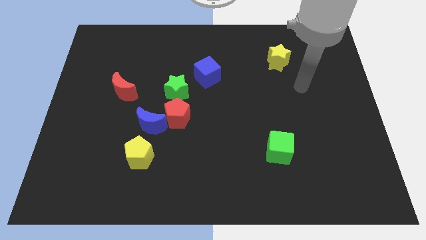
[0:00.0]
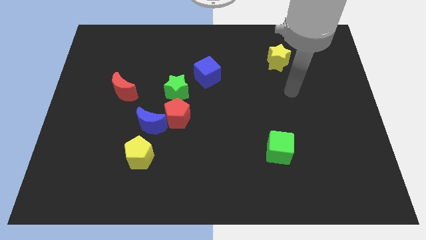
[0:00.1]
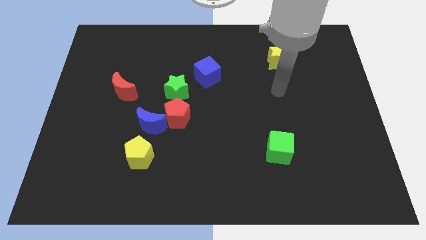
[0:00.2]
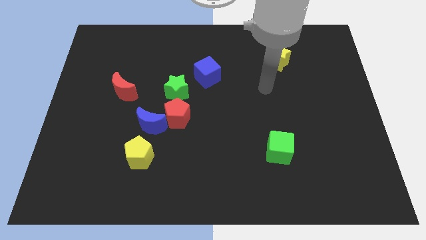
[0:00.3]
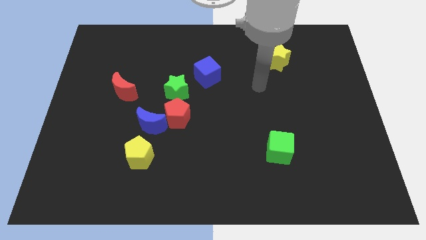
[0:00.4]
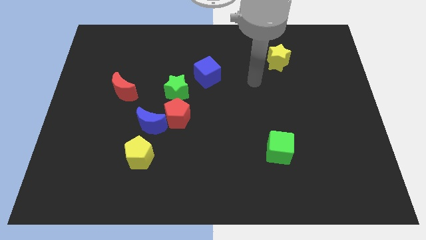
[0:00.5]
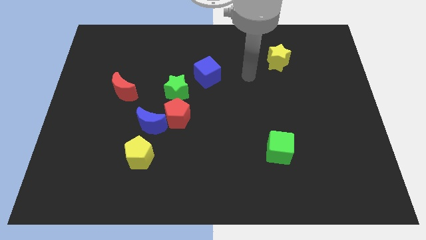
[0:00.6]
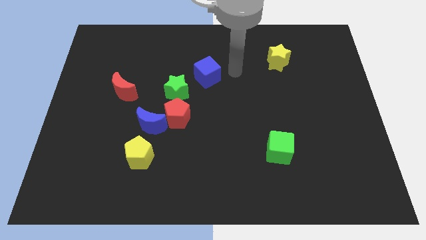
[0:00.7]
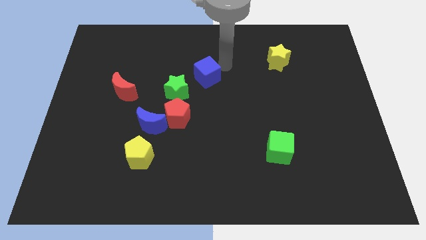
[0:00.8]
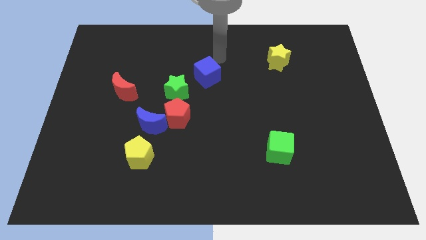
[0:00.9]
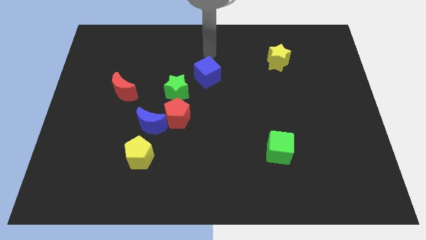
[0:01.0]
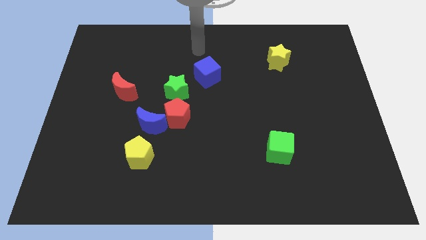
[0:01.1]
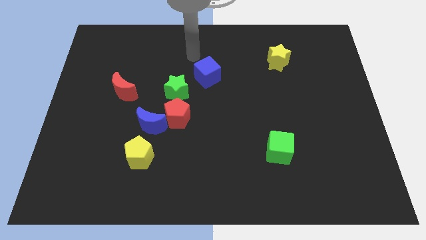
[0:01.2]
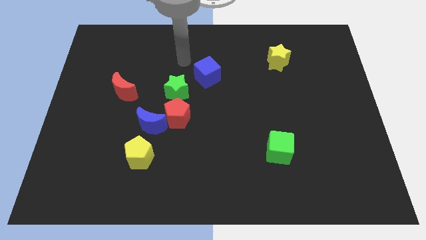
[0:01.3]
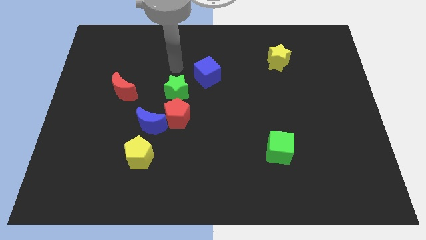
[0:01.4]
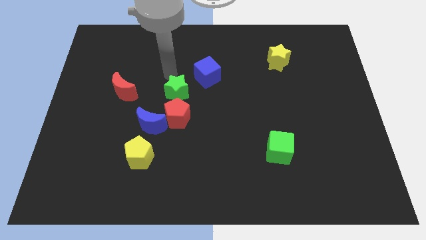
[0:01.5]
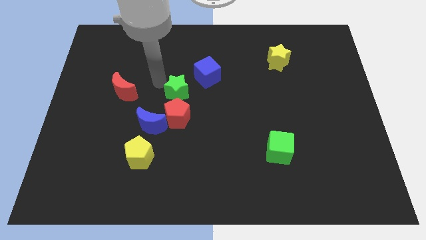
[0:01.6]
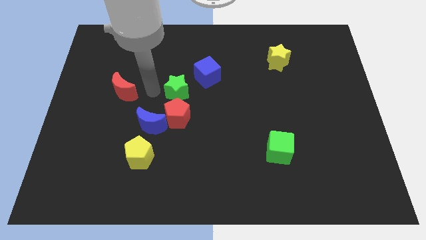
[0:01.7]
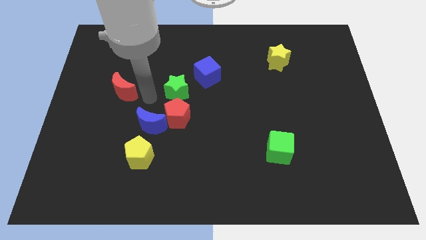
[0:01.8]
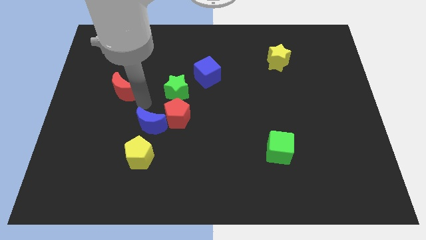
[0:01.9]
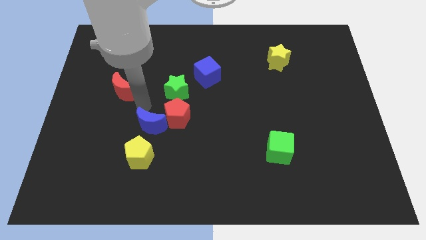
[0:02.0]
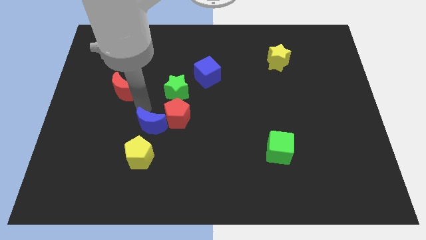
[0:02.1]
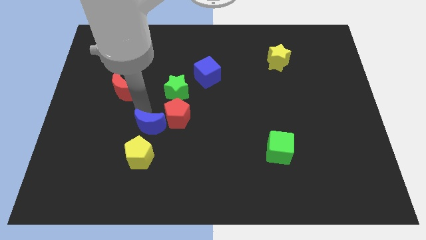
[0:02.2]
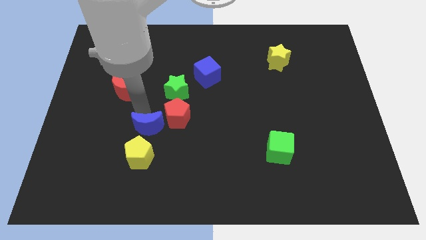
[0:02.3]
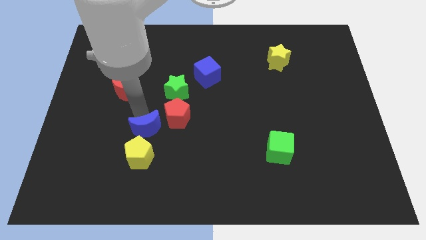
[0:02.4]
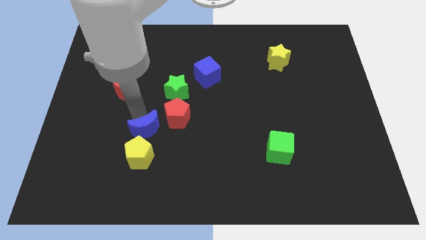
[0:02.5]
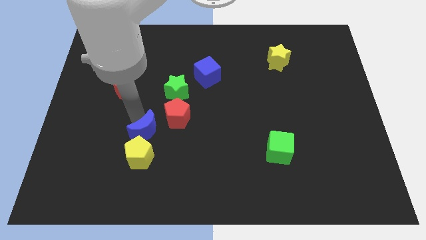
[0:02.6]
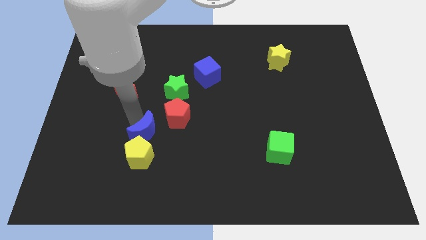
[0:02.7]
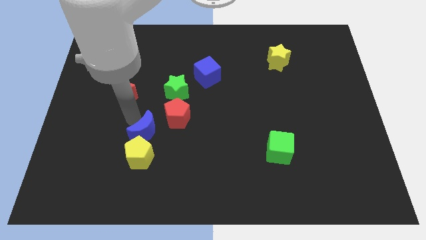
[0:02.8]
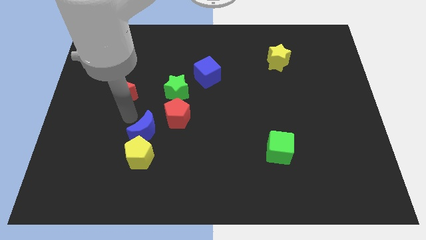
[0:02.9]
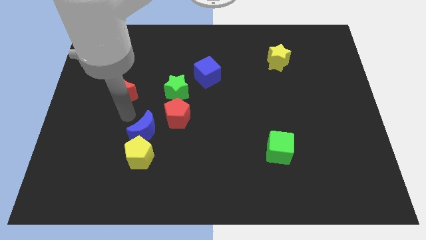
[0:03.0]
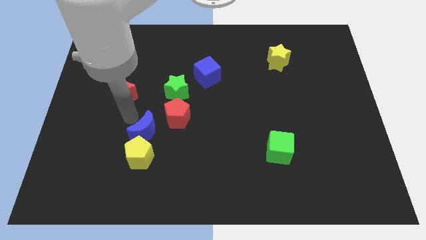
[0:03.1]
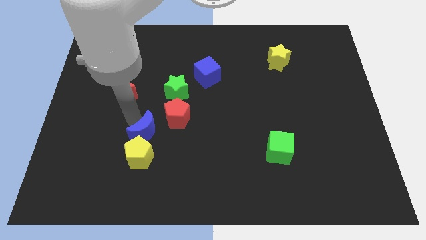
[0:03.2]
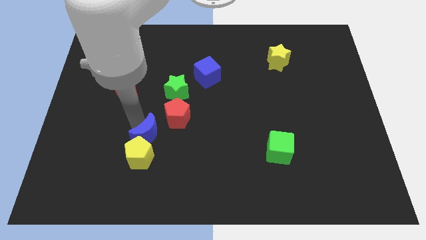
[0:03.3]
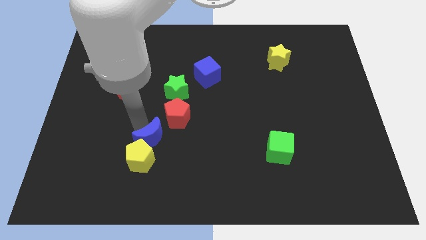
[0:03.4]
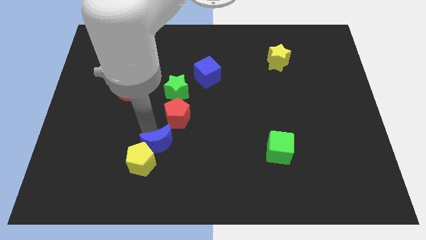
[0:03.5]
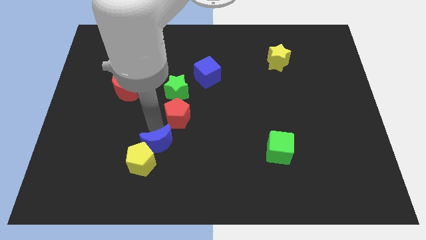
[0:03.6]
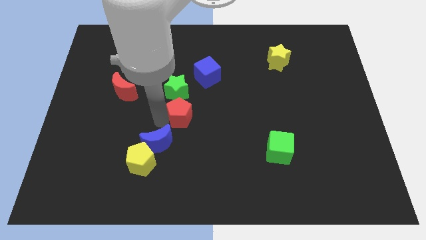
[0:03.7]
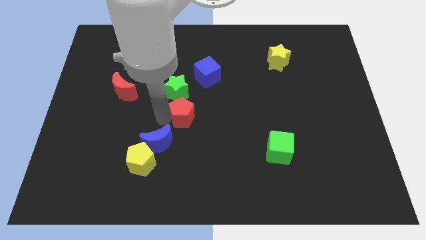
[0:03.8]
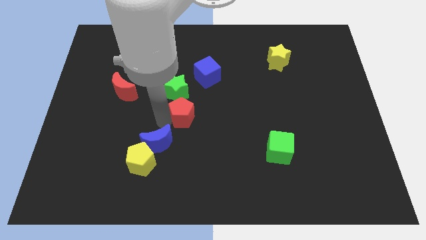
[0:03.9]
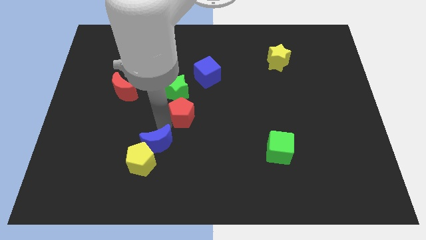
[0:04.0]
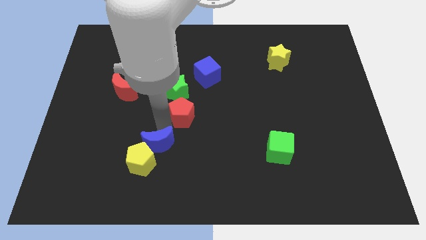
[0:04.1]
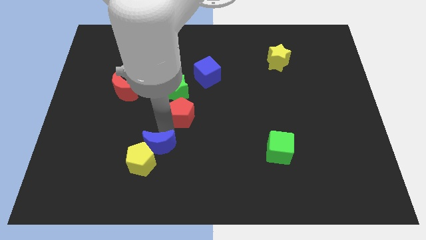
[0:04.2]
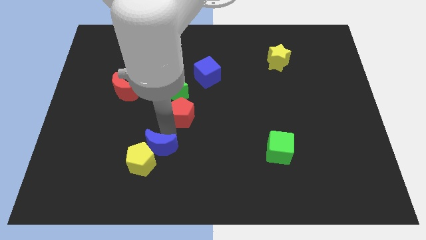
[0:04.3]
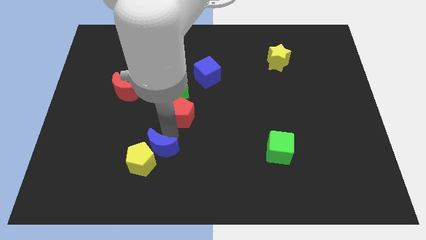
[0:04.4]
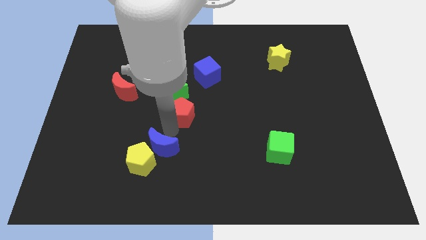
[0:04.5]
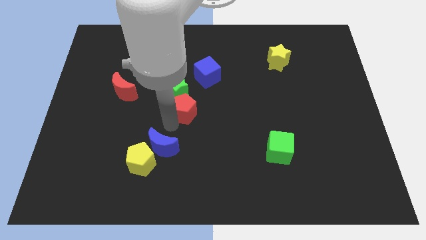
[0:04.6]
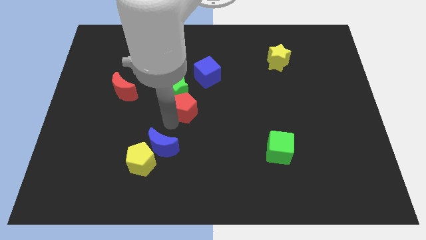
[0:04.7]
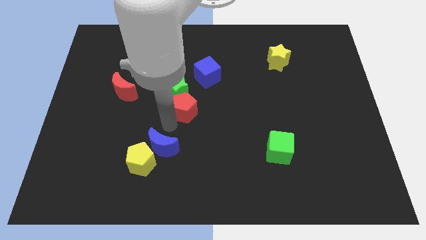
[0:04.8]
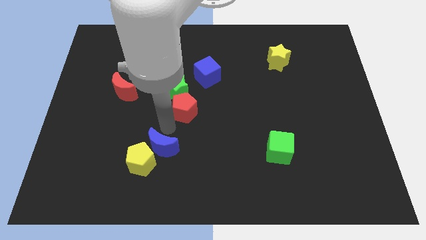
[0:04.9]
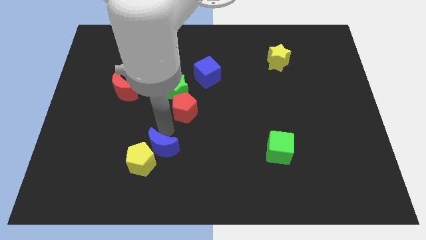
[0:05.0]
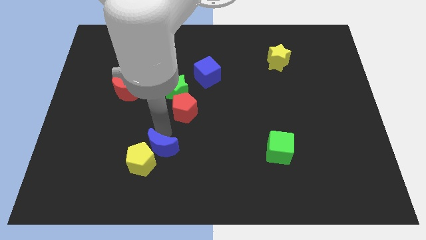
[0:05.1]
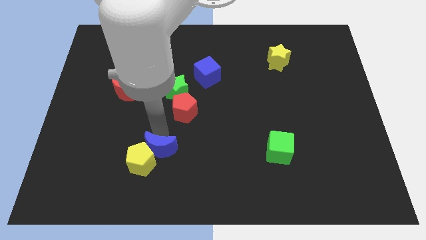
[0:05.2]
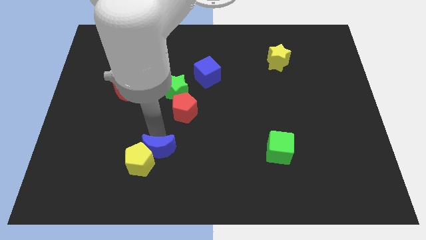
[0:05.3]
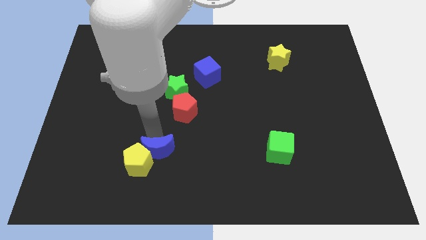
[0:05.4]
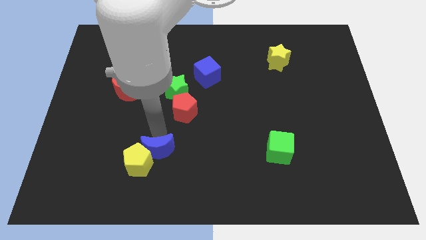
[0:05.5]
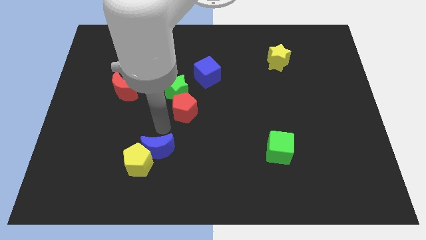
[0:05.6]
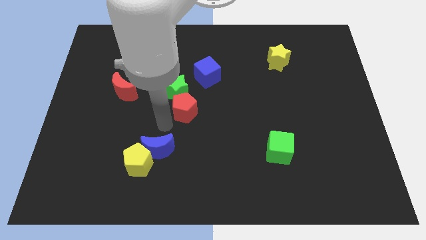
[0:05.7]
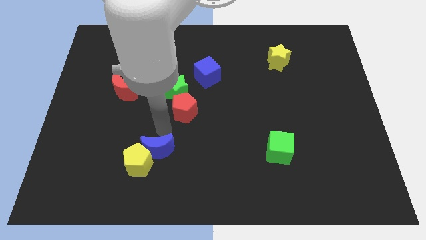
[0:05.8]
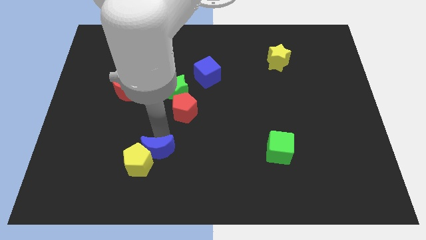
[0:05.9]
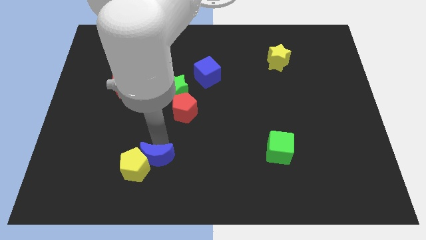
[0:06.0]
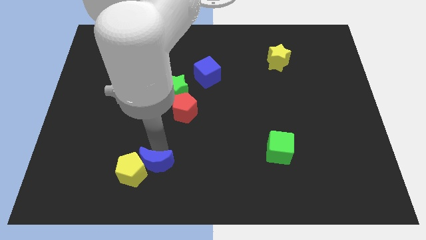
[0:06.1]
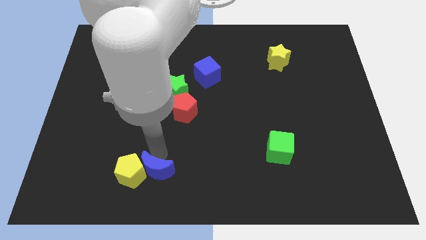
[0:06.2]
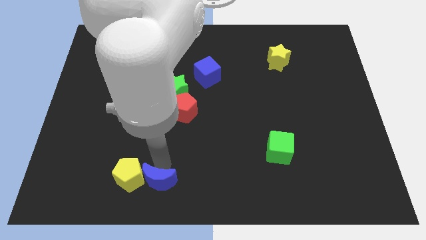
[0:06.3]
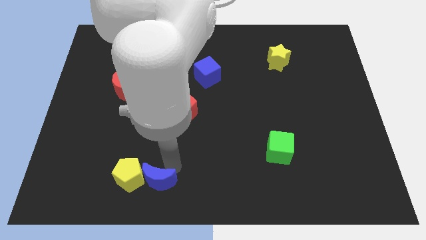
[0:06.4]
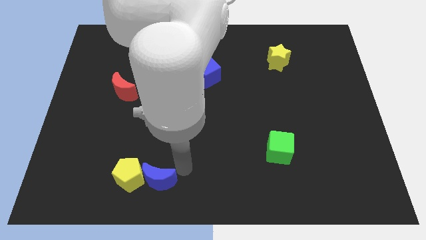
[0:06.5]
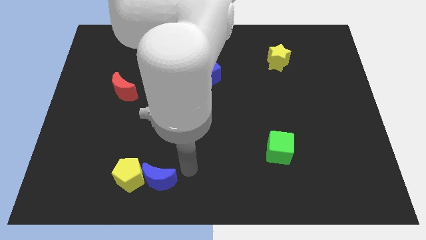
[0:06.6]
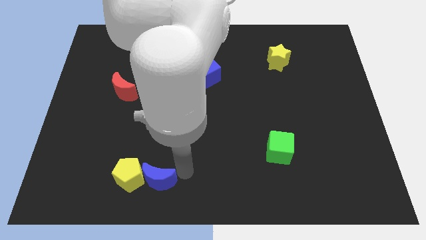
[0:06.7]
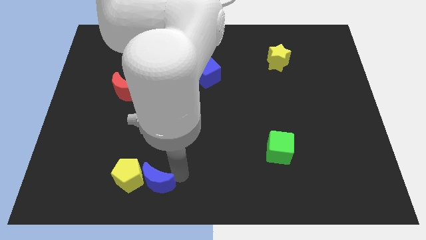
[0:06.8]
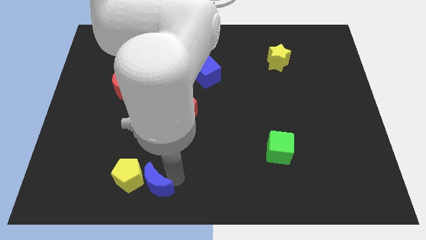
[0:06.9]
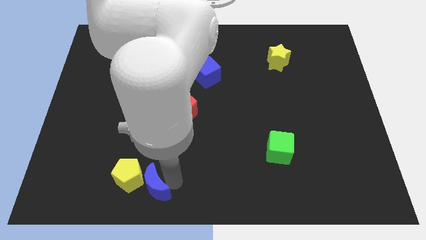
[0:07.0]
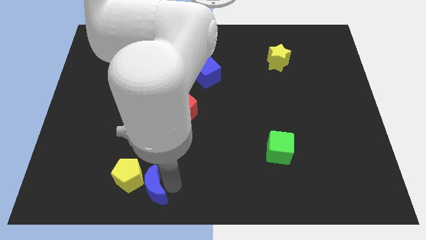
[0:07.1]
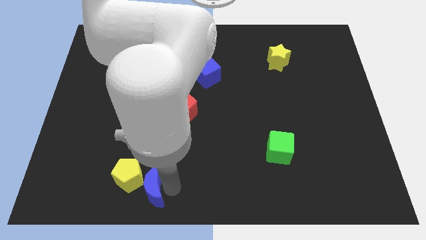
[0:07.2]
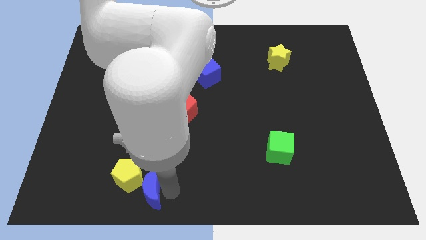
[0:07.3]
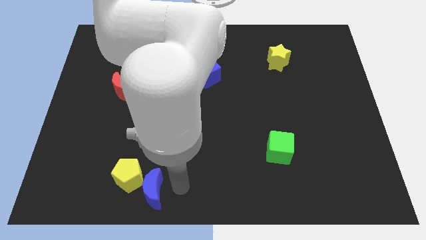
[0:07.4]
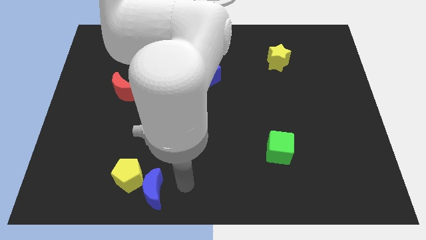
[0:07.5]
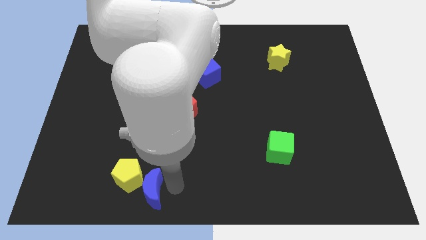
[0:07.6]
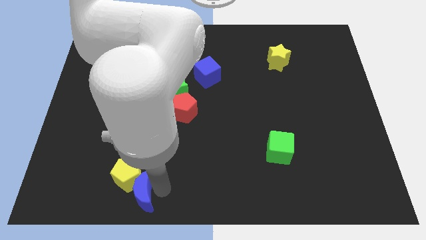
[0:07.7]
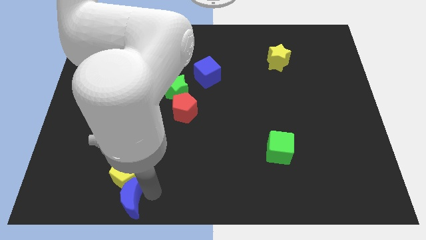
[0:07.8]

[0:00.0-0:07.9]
move the blue moon diagonally down and to the left of the yellow pentagon

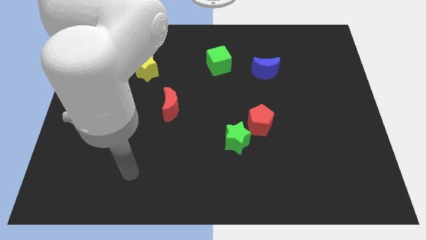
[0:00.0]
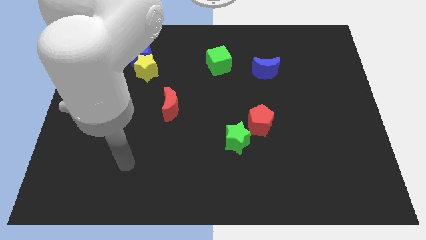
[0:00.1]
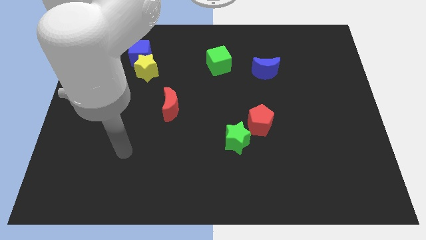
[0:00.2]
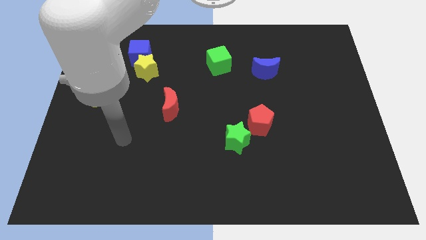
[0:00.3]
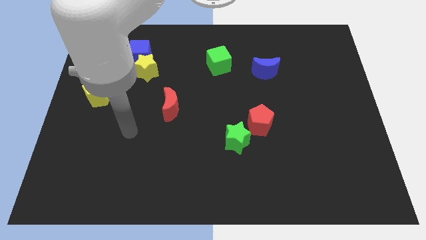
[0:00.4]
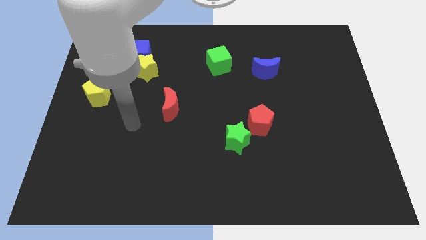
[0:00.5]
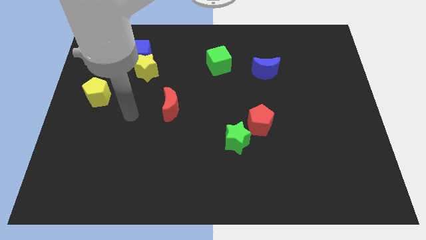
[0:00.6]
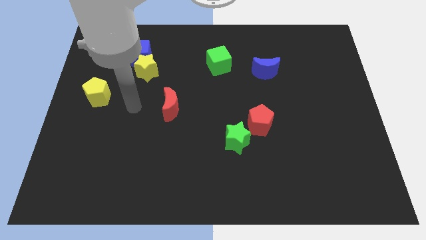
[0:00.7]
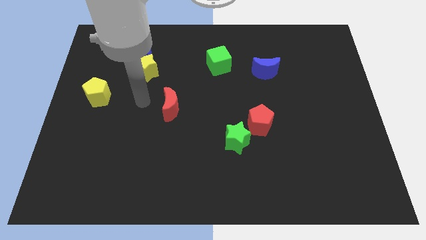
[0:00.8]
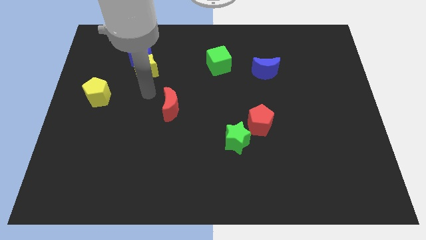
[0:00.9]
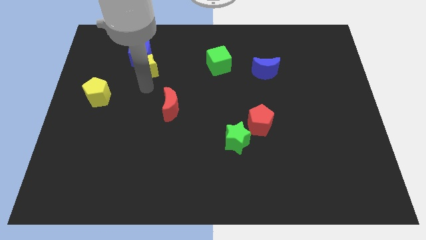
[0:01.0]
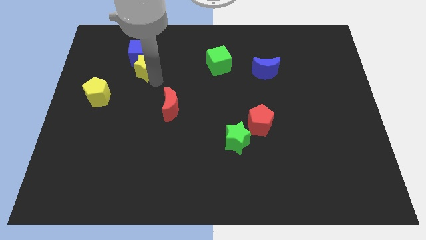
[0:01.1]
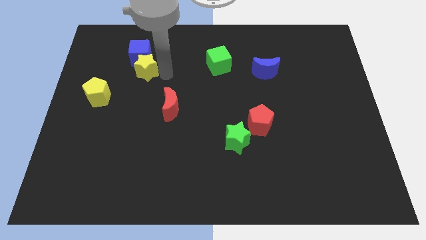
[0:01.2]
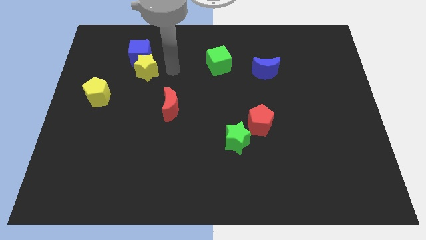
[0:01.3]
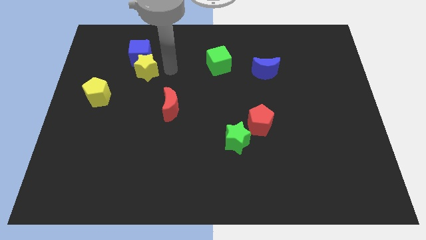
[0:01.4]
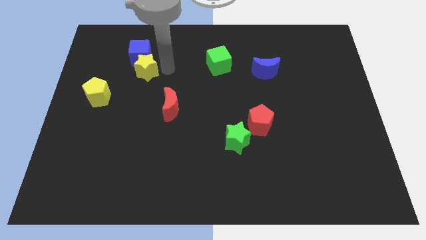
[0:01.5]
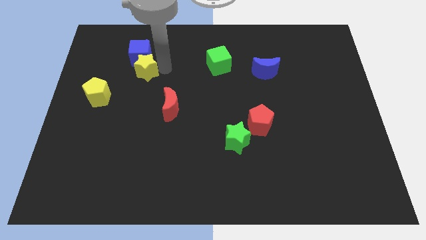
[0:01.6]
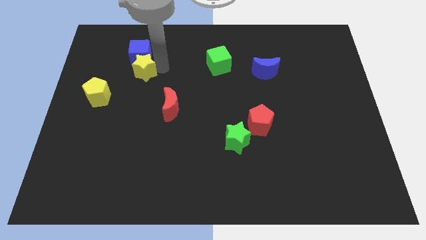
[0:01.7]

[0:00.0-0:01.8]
move the yellow star to the bottom left of the blue cube
